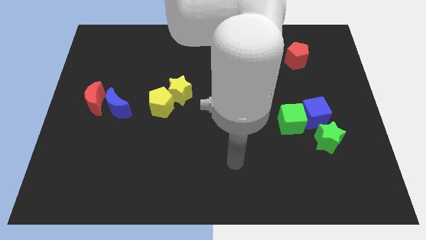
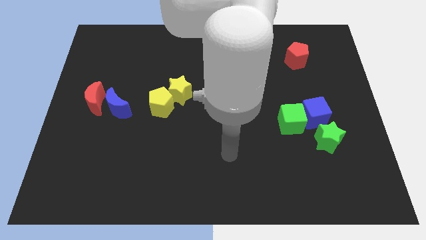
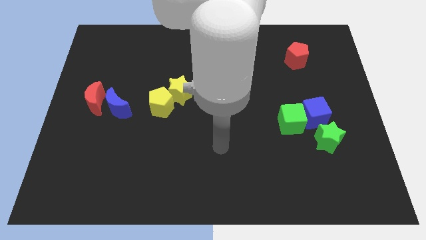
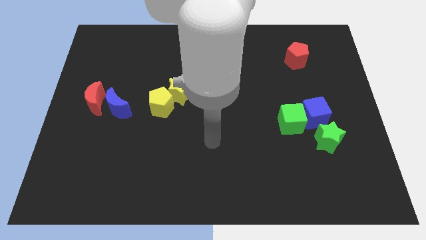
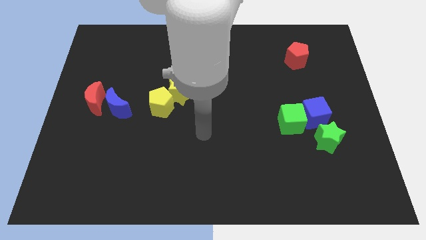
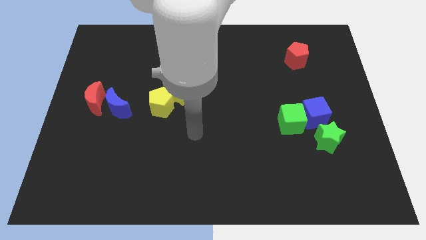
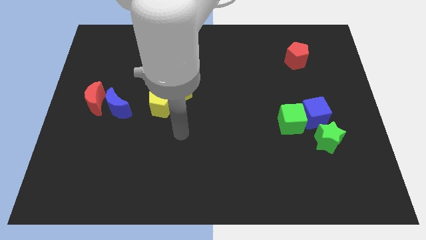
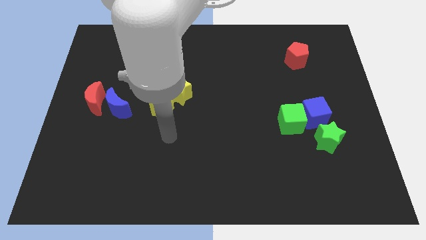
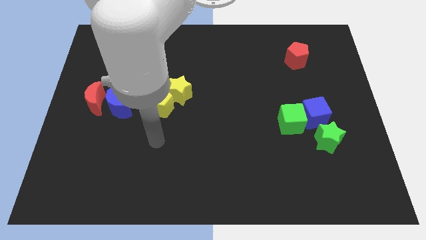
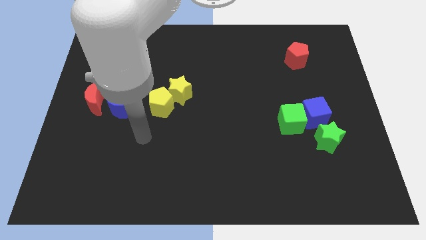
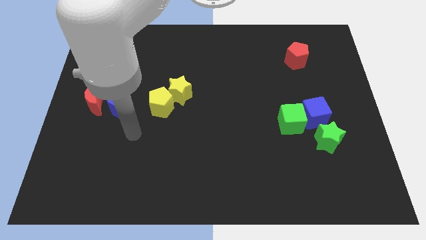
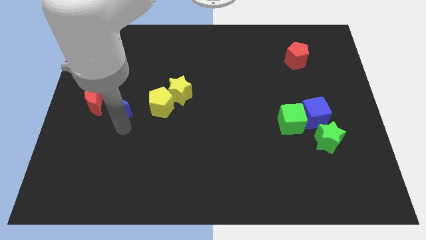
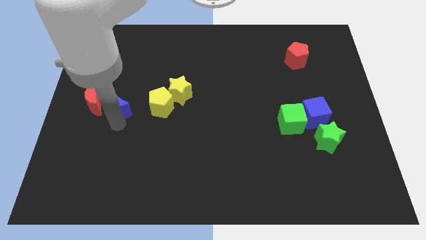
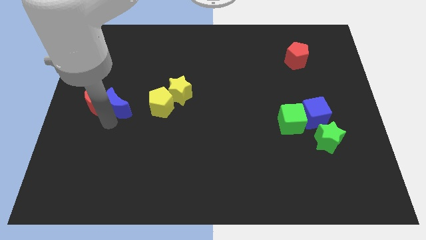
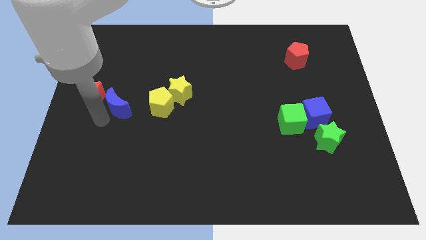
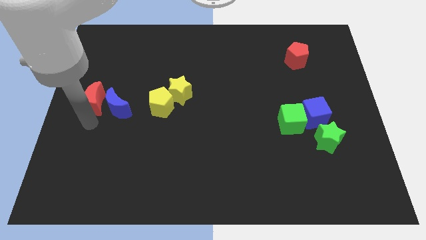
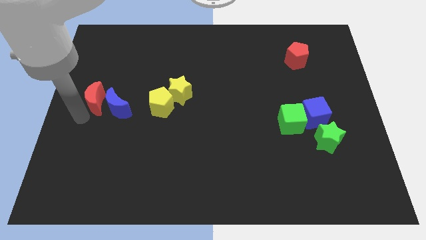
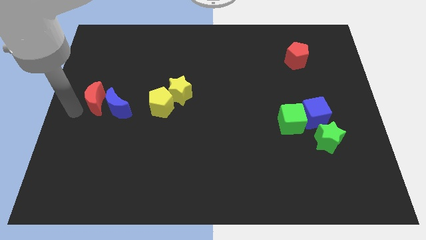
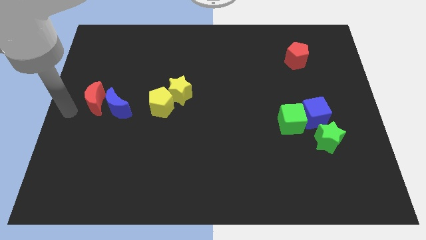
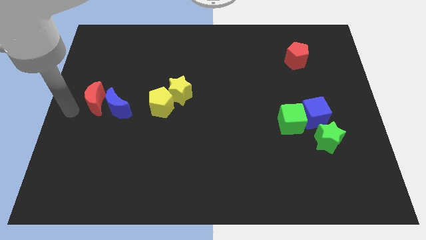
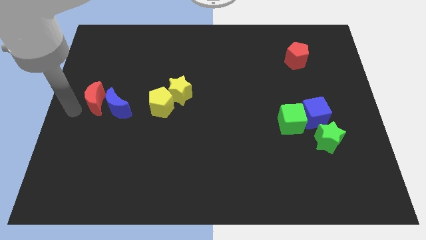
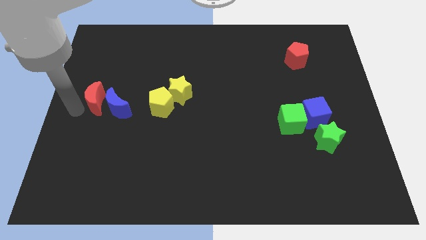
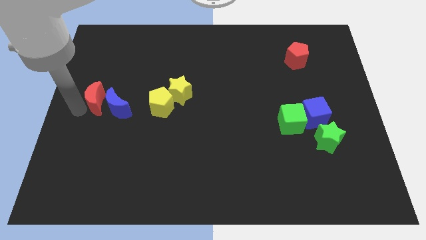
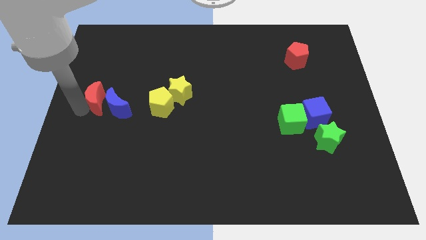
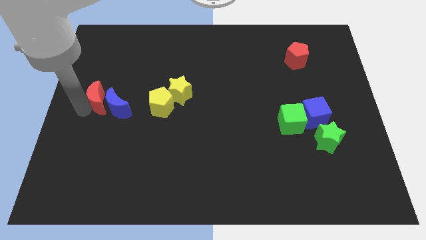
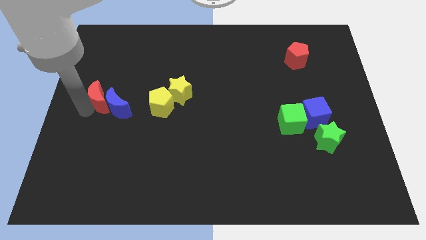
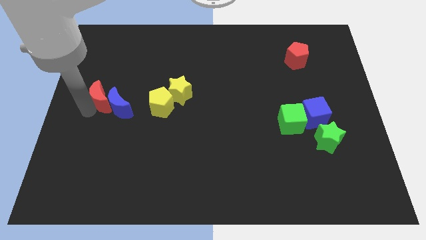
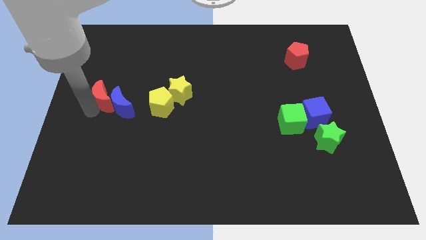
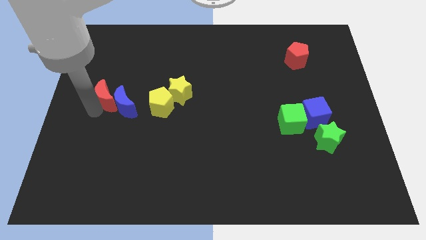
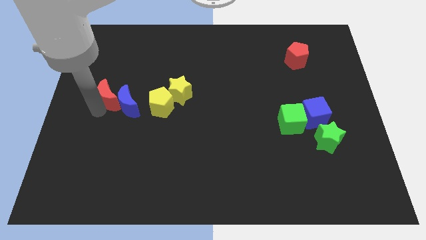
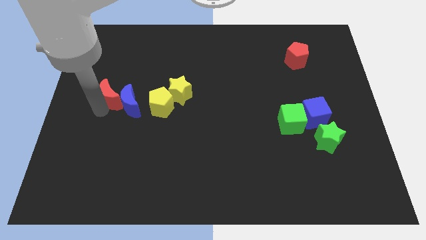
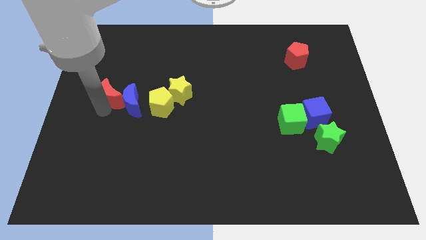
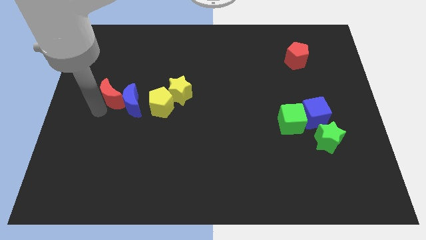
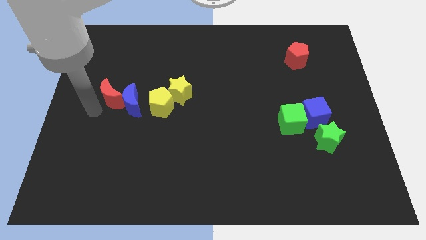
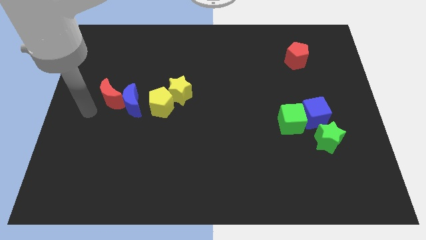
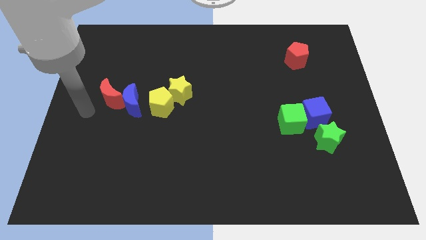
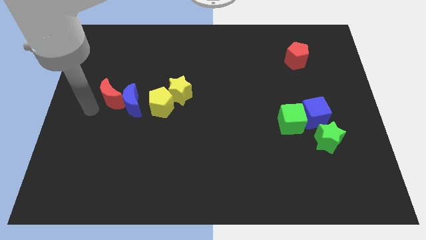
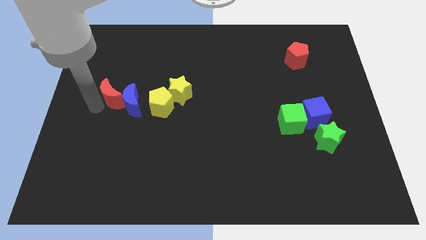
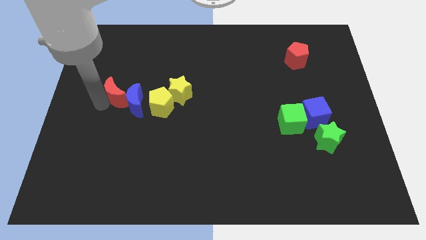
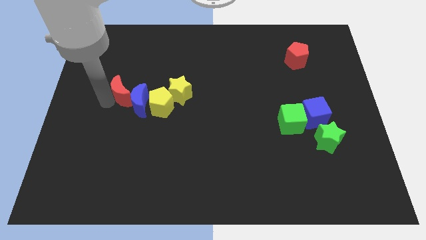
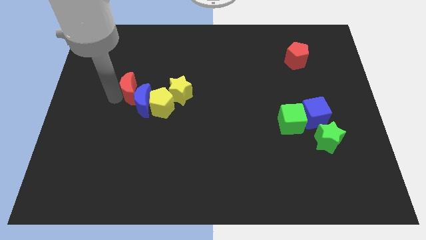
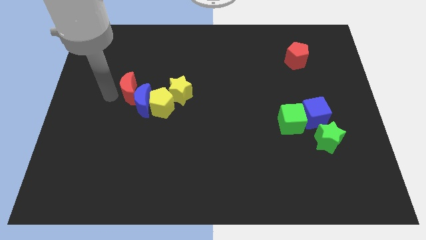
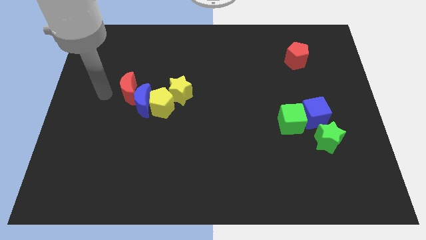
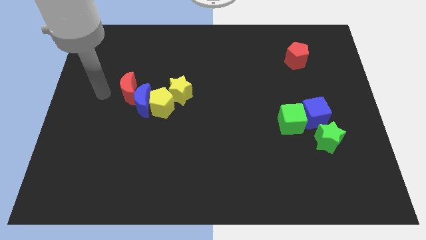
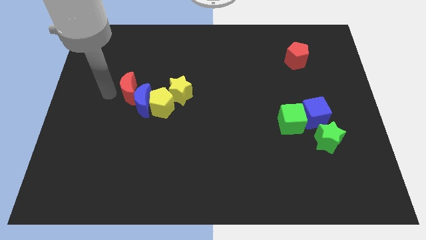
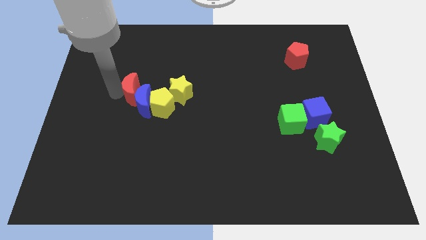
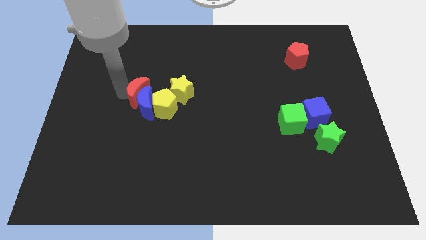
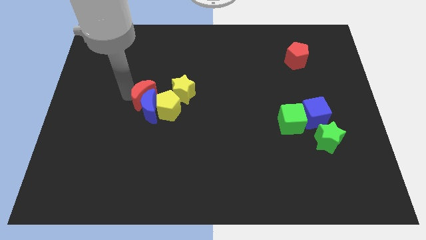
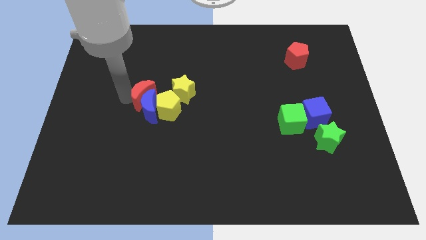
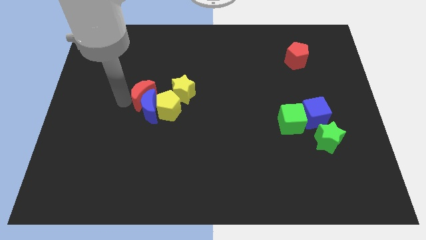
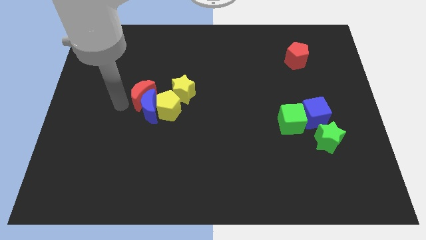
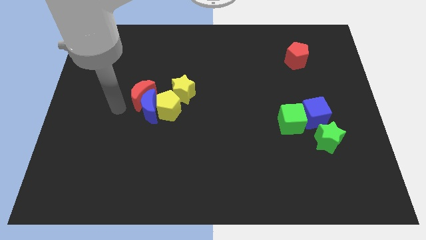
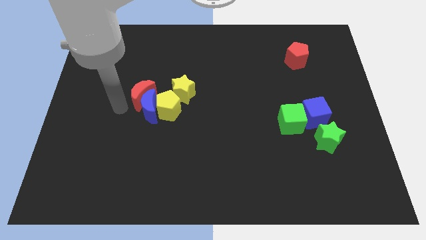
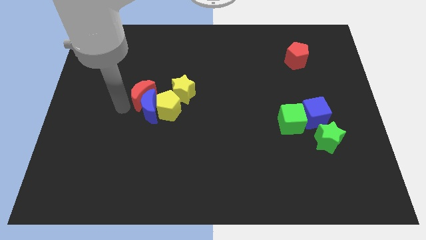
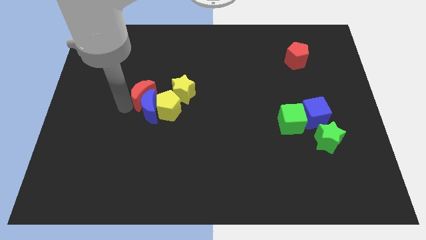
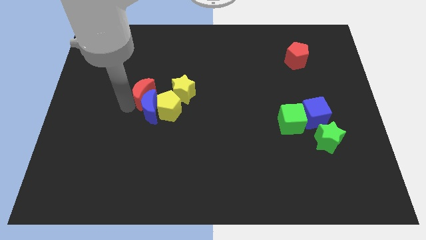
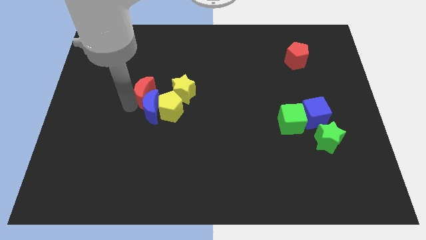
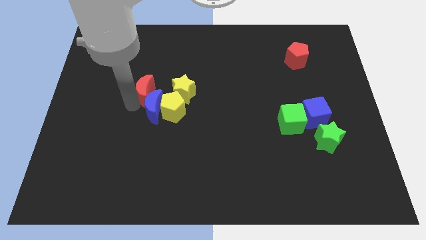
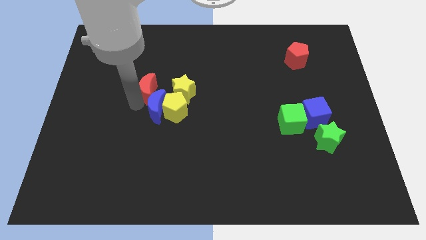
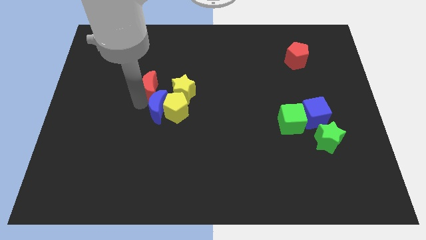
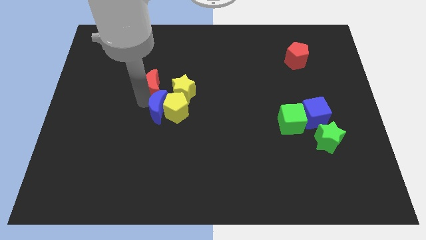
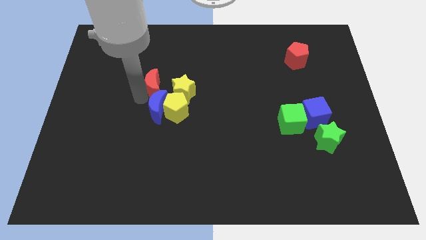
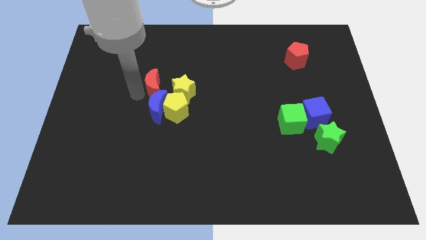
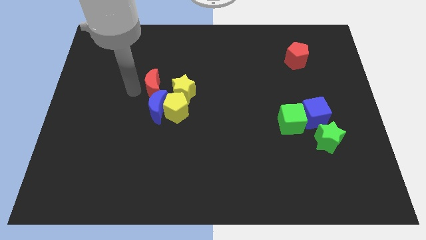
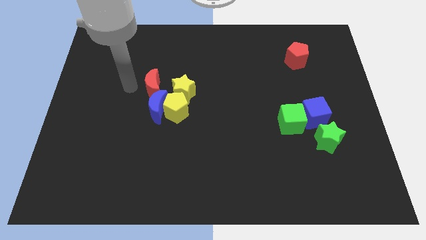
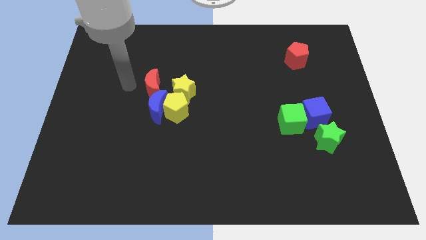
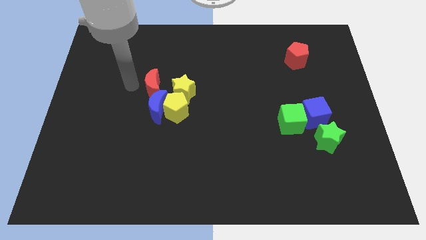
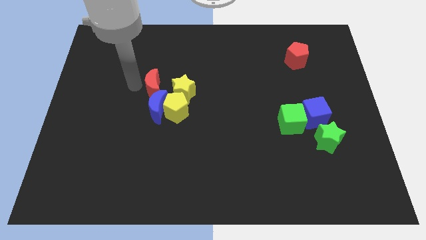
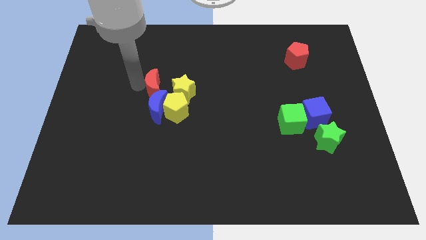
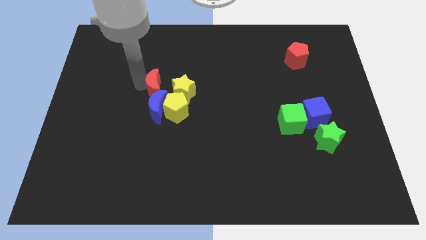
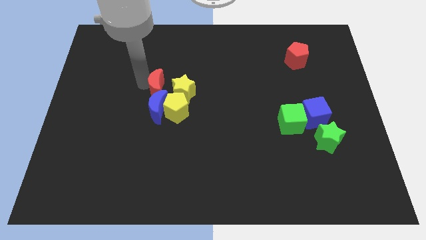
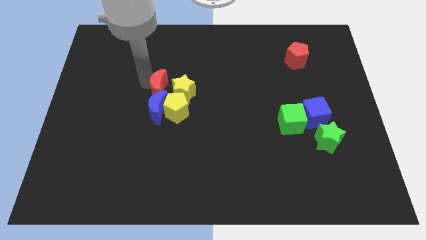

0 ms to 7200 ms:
push the red moon next to the yellow star

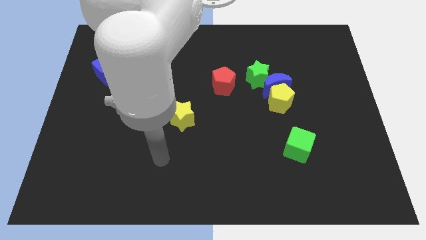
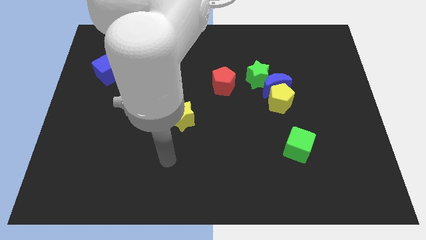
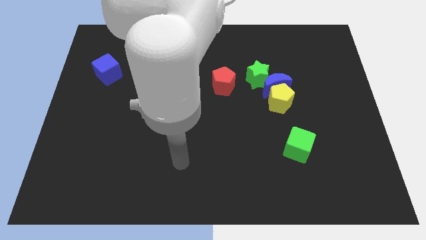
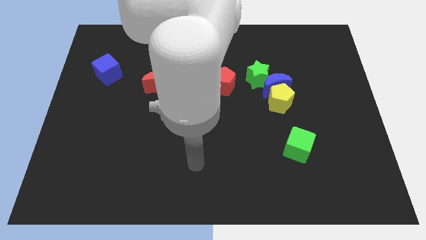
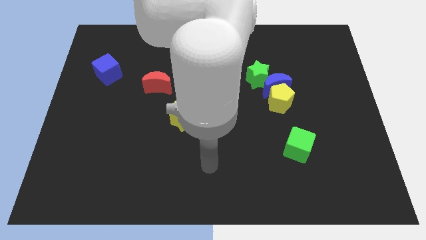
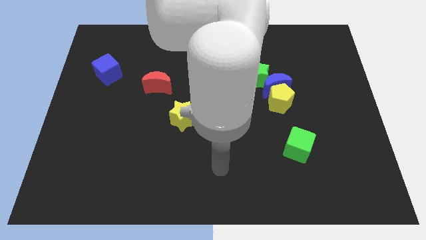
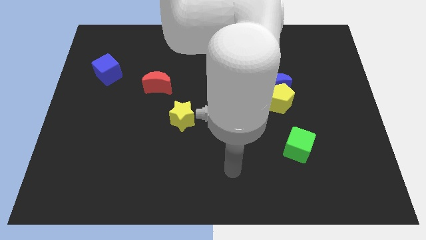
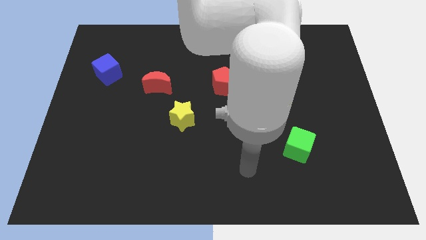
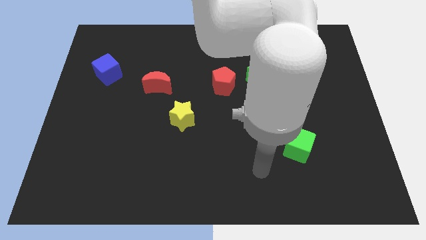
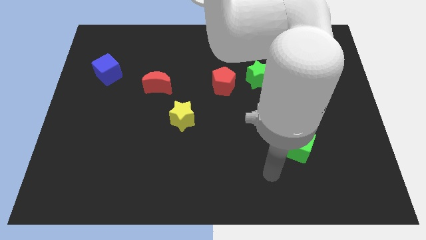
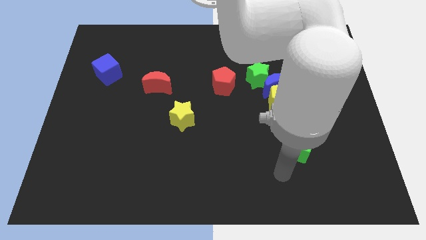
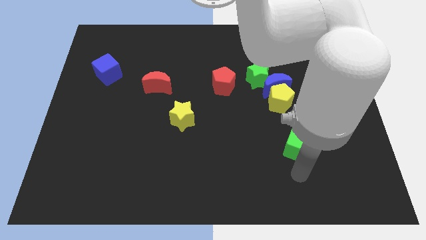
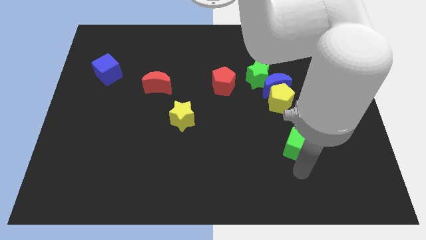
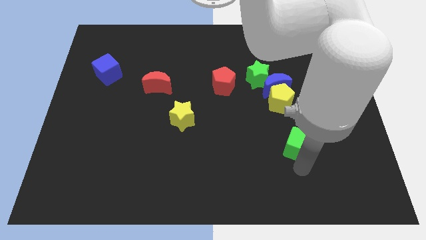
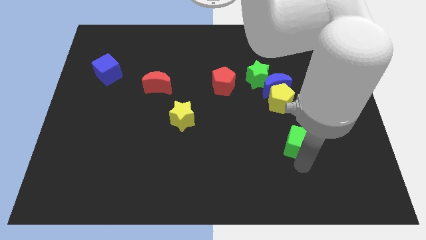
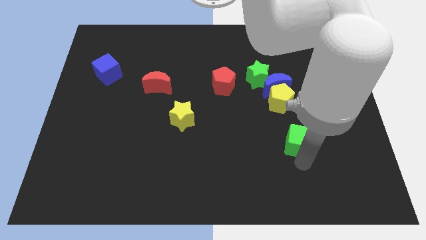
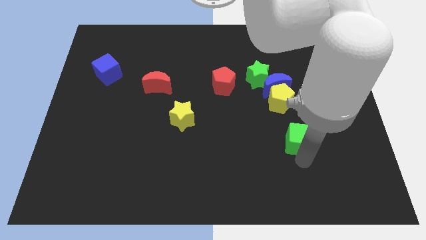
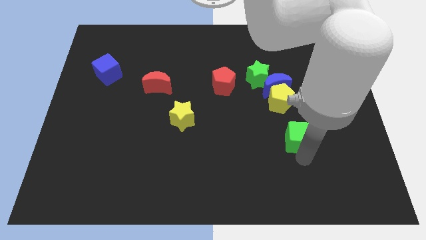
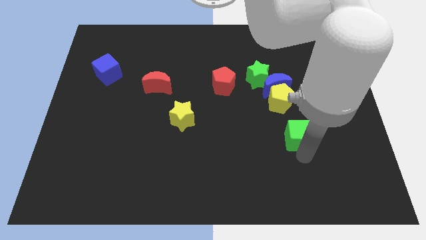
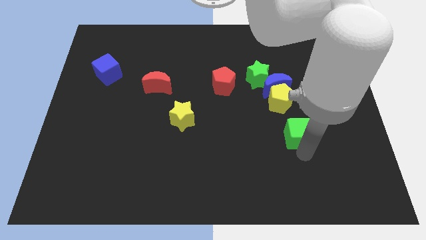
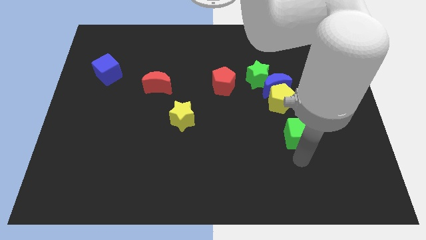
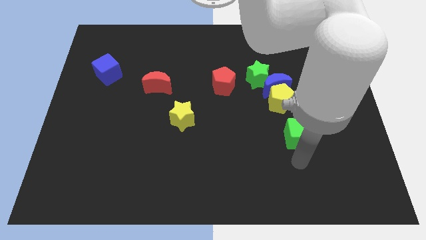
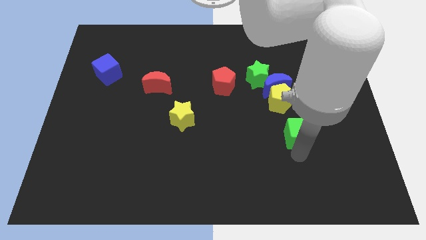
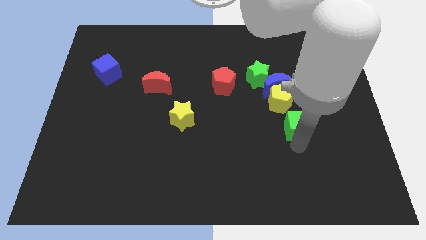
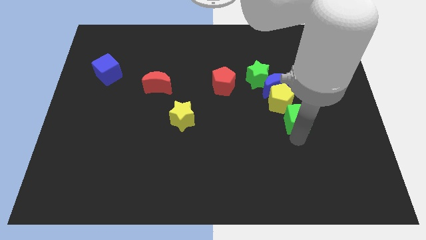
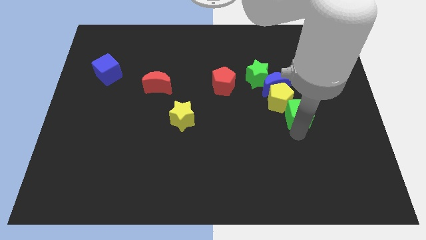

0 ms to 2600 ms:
put the green cube close to the yellow pentagon
